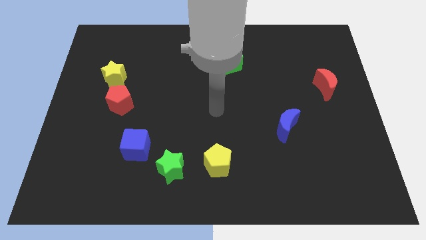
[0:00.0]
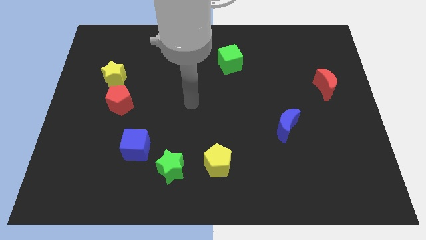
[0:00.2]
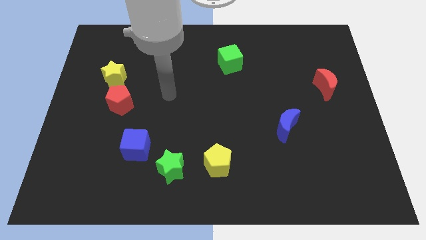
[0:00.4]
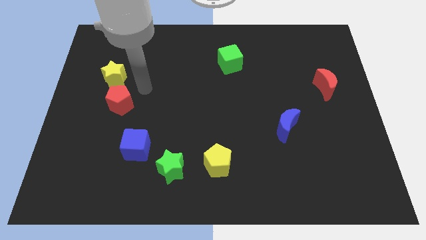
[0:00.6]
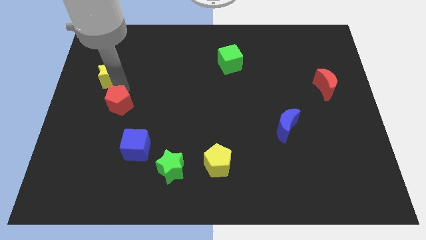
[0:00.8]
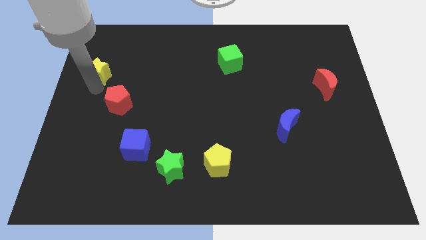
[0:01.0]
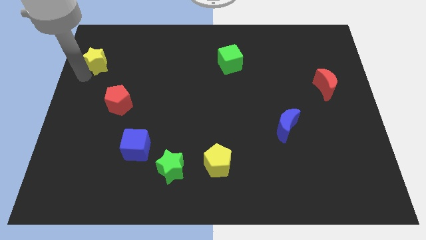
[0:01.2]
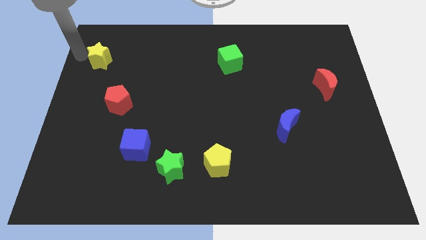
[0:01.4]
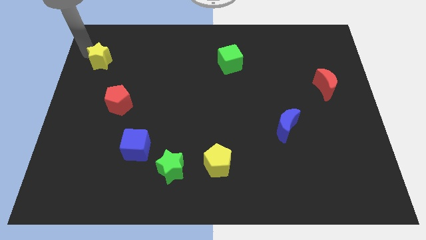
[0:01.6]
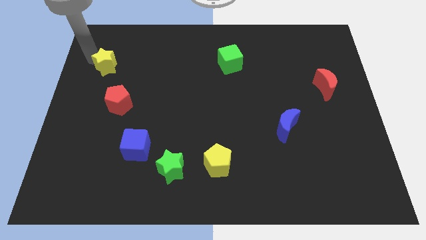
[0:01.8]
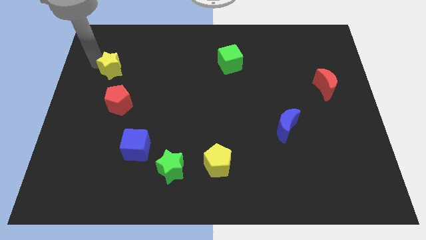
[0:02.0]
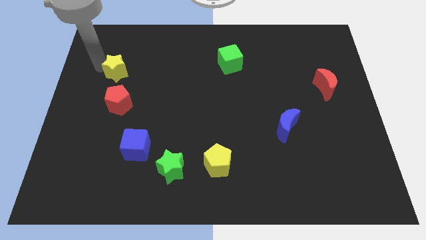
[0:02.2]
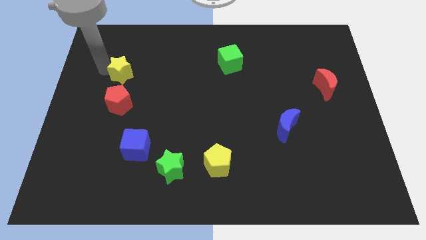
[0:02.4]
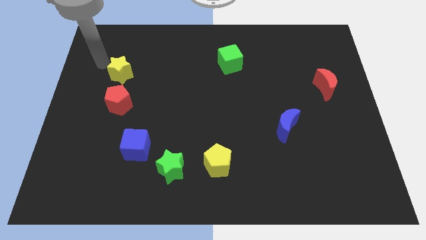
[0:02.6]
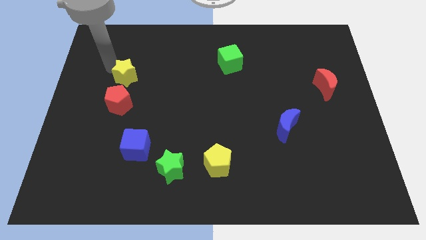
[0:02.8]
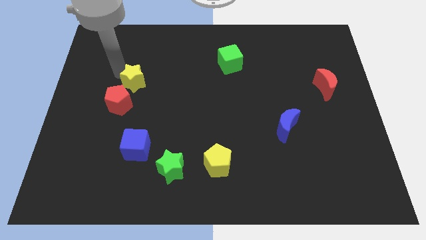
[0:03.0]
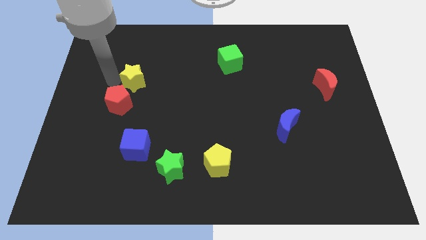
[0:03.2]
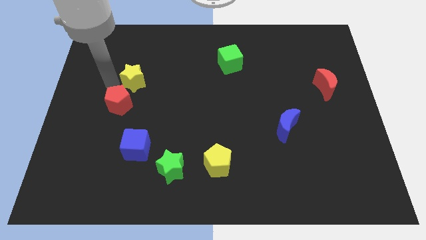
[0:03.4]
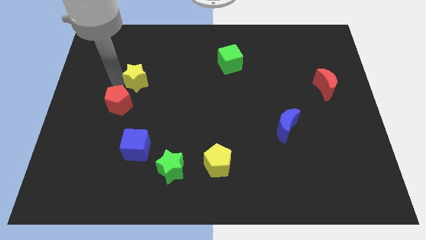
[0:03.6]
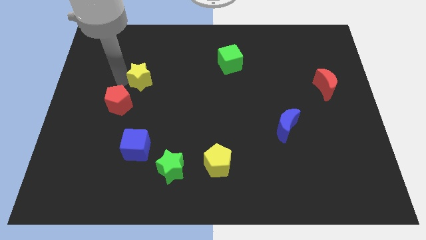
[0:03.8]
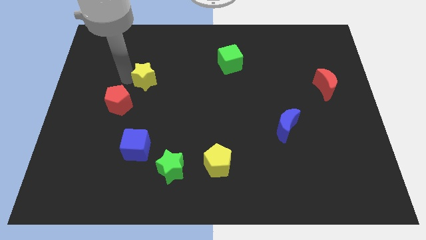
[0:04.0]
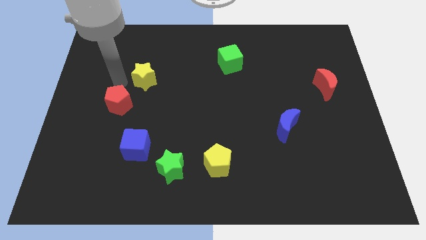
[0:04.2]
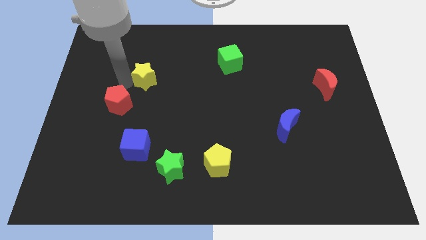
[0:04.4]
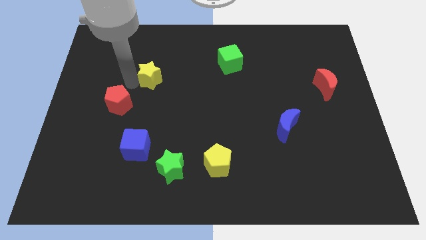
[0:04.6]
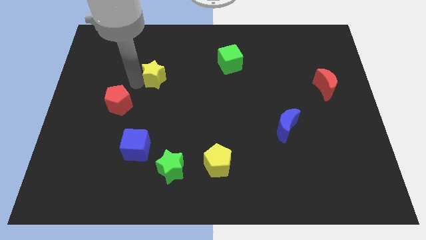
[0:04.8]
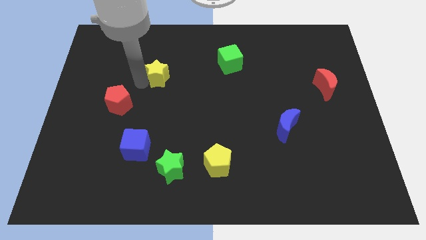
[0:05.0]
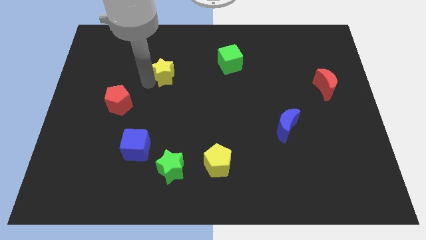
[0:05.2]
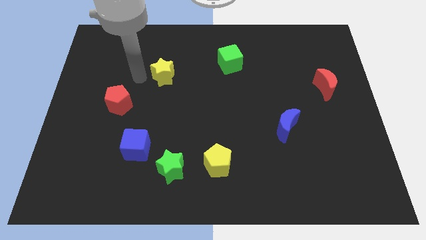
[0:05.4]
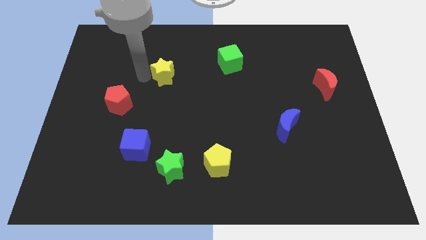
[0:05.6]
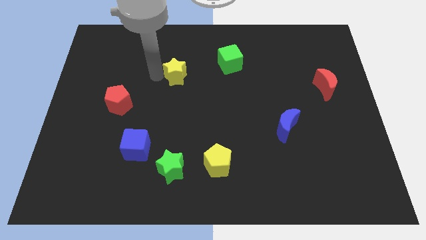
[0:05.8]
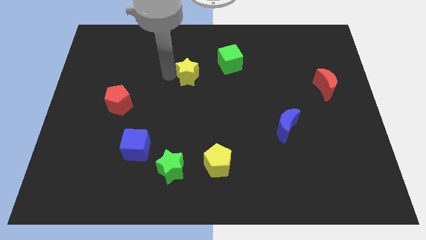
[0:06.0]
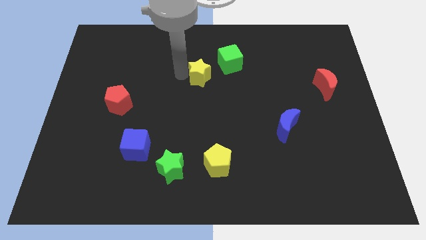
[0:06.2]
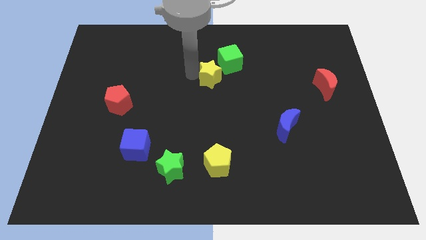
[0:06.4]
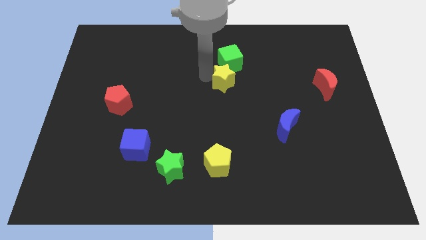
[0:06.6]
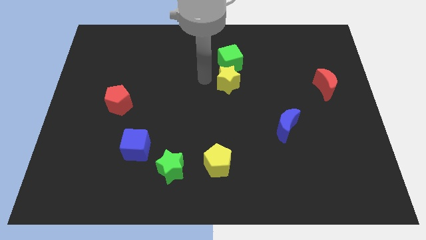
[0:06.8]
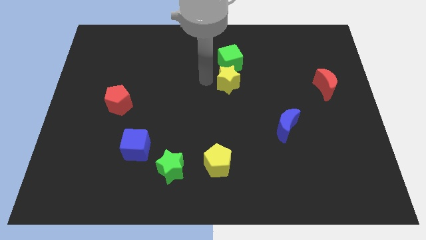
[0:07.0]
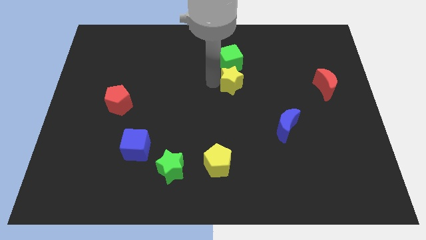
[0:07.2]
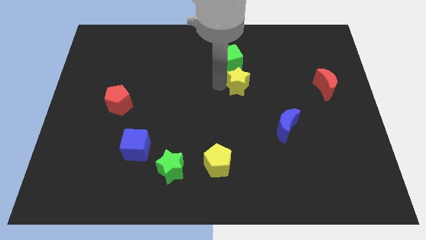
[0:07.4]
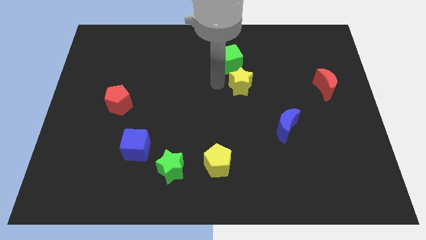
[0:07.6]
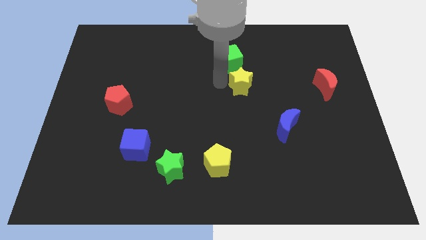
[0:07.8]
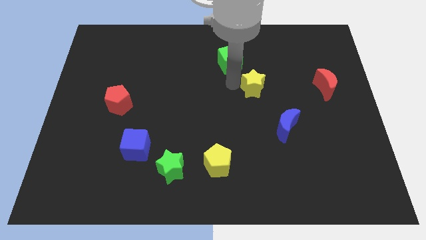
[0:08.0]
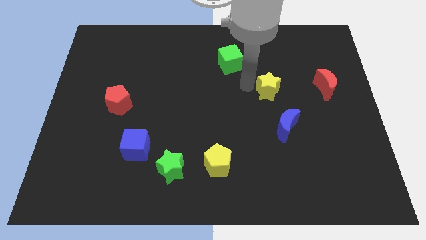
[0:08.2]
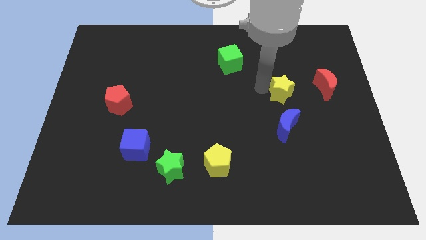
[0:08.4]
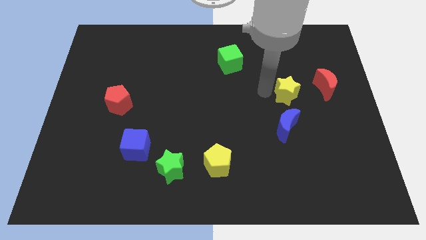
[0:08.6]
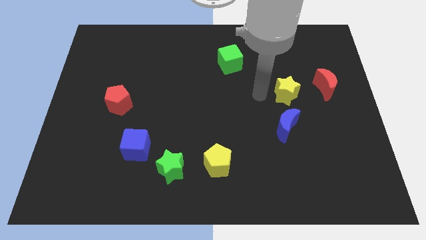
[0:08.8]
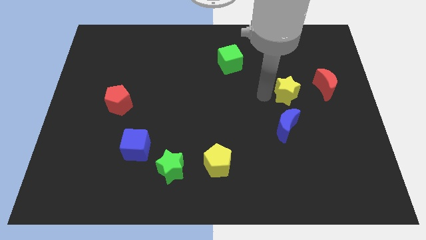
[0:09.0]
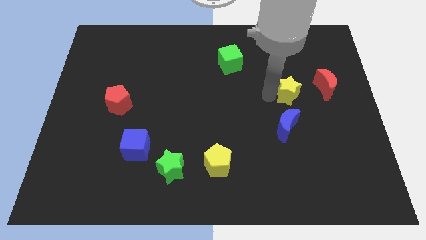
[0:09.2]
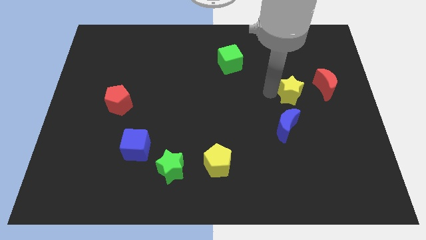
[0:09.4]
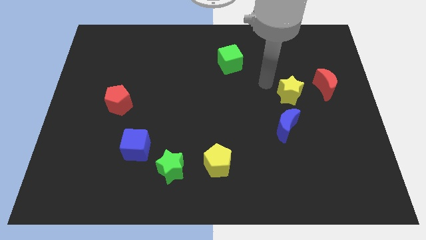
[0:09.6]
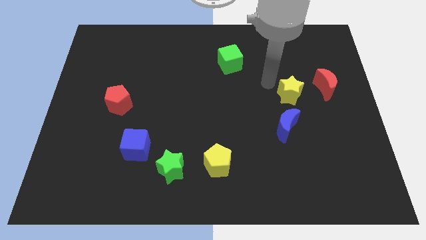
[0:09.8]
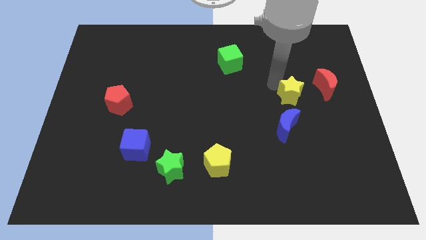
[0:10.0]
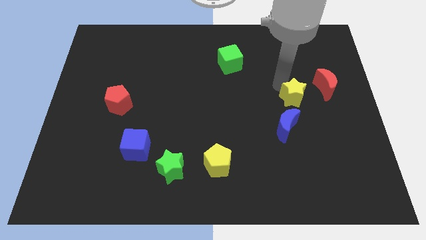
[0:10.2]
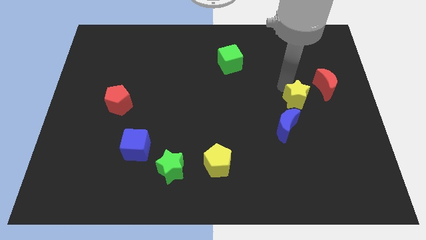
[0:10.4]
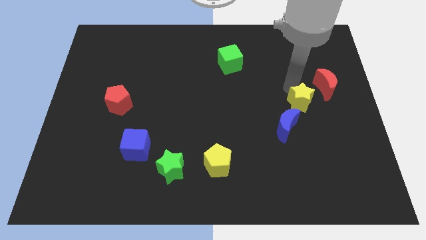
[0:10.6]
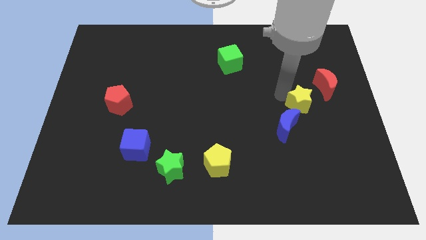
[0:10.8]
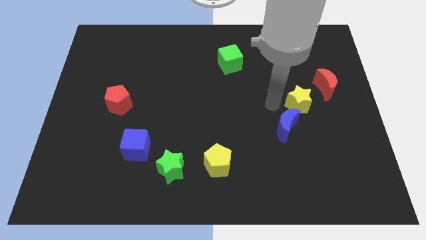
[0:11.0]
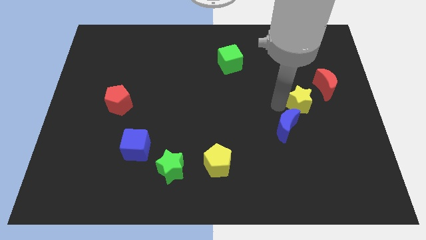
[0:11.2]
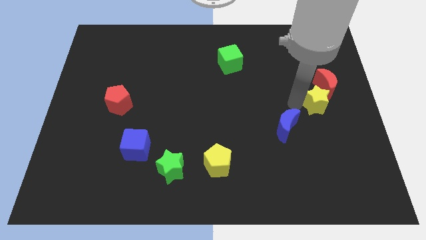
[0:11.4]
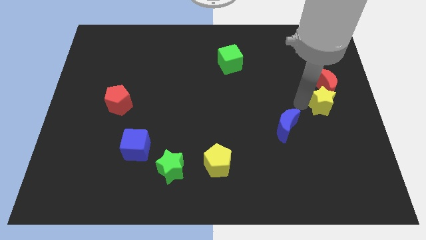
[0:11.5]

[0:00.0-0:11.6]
push the yellow star to the right side of the board
